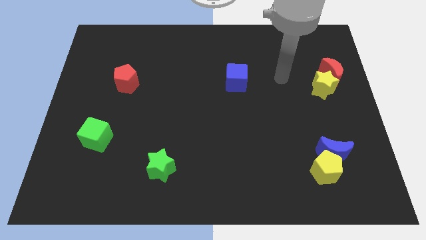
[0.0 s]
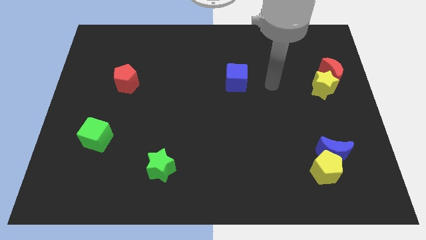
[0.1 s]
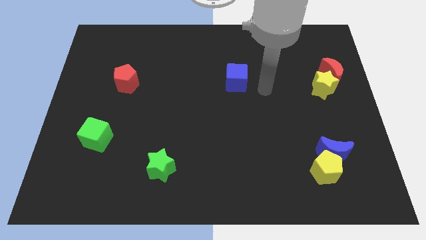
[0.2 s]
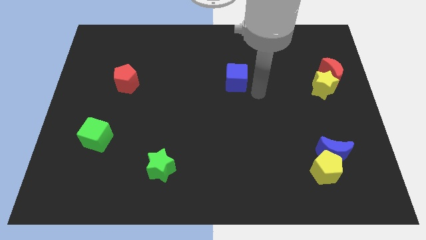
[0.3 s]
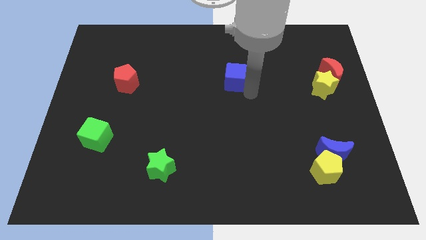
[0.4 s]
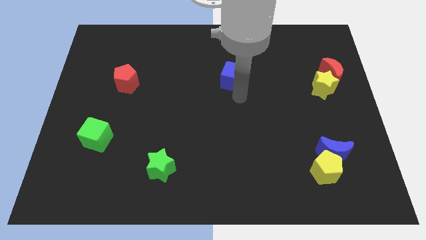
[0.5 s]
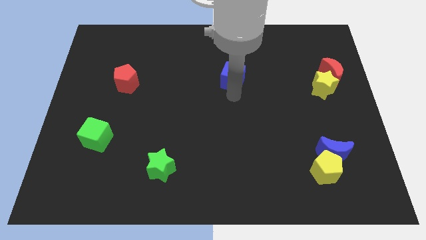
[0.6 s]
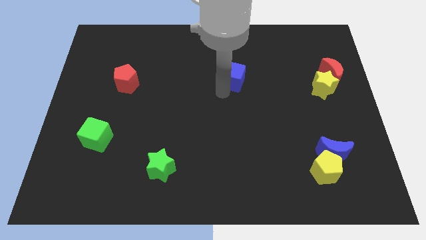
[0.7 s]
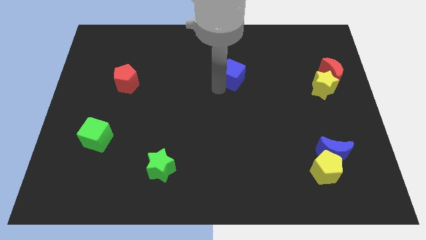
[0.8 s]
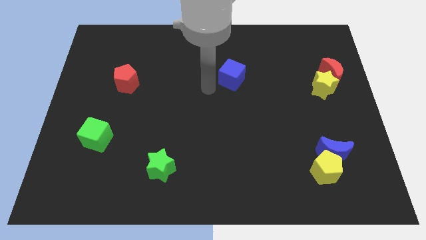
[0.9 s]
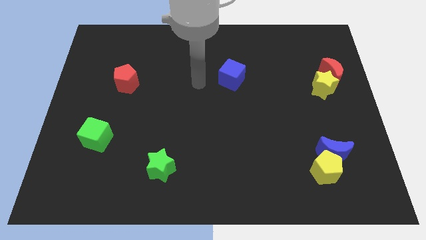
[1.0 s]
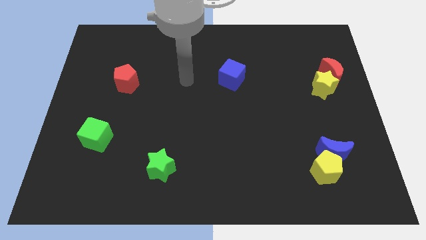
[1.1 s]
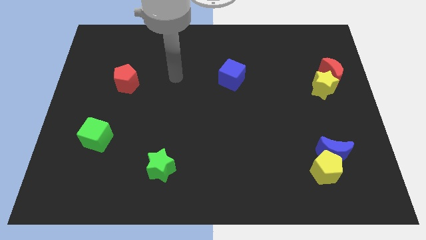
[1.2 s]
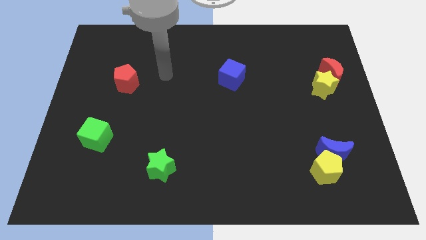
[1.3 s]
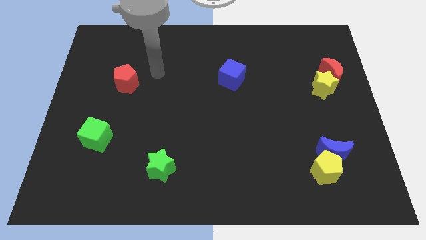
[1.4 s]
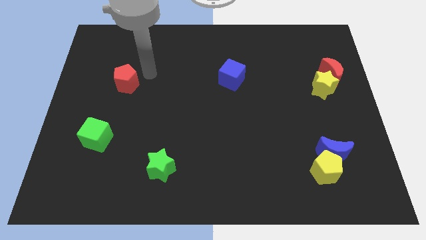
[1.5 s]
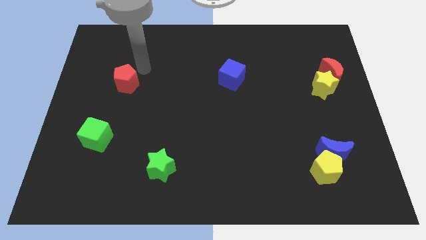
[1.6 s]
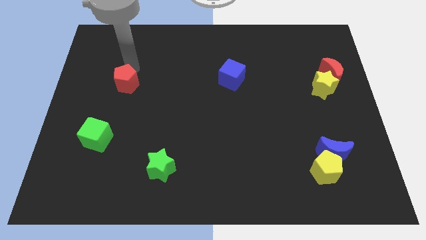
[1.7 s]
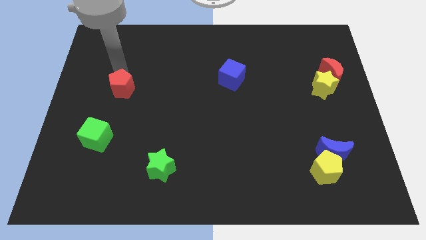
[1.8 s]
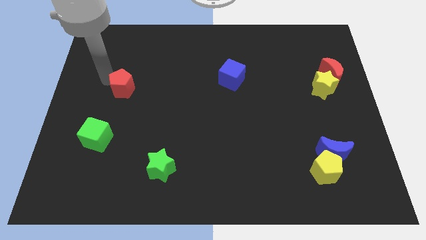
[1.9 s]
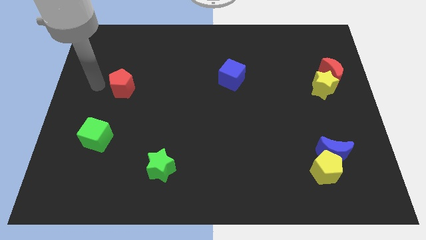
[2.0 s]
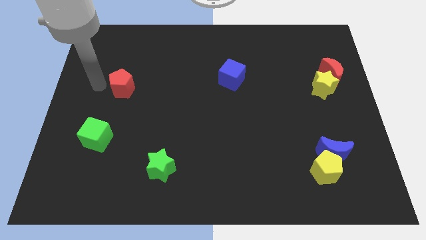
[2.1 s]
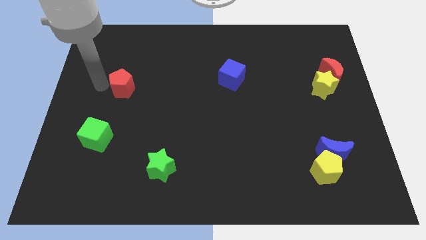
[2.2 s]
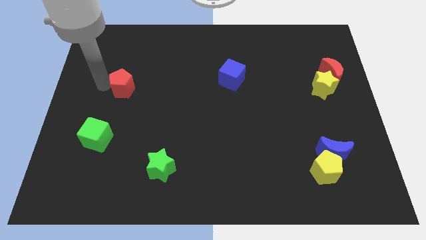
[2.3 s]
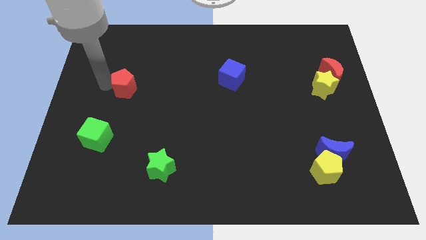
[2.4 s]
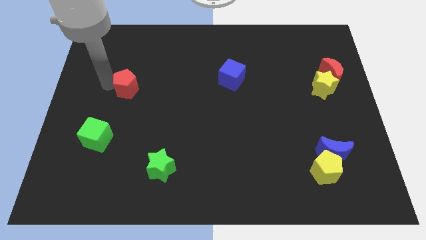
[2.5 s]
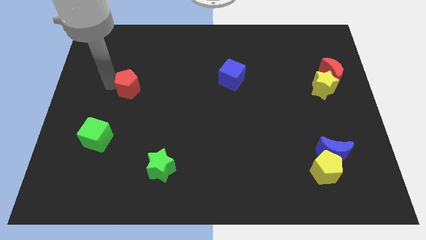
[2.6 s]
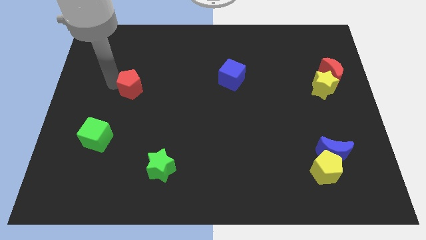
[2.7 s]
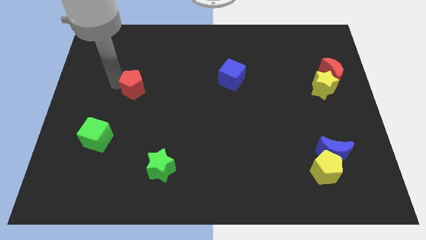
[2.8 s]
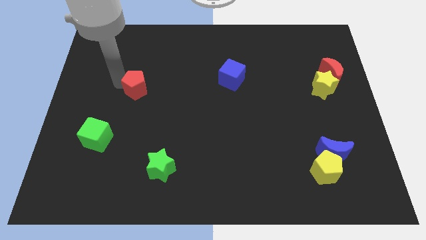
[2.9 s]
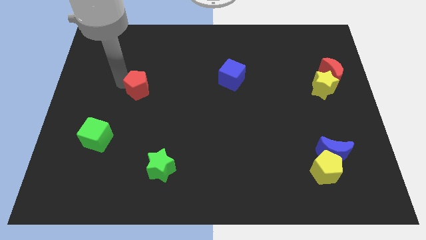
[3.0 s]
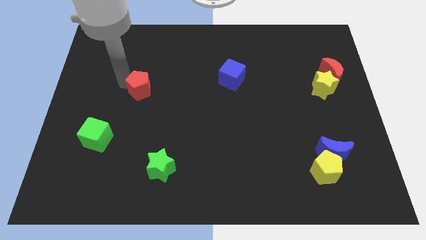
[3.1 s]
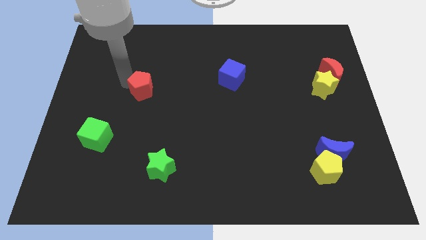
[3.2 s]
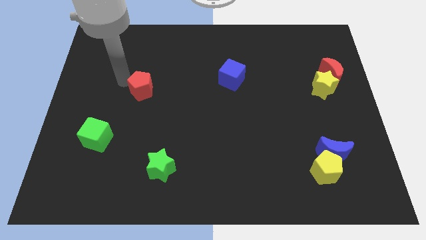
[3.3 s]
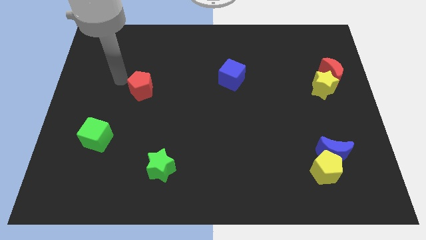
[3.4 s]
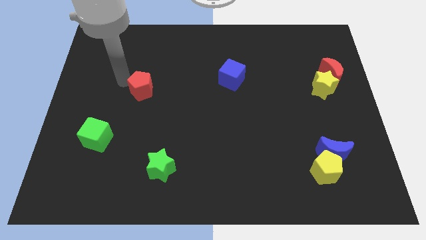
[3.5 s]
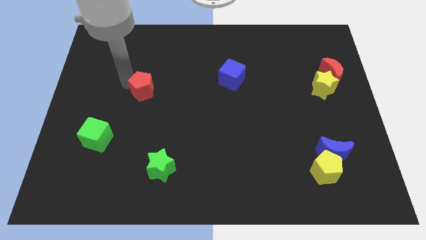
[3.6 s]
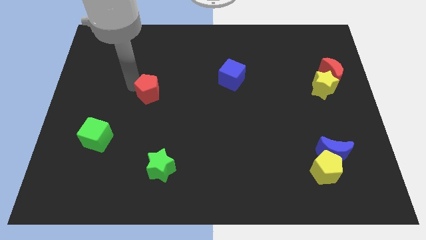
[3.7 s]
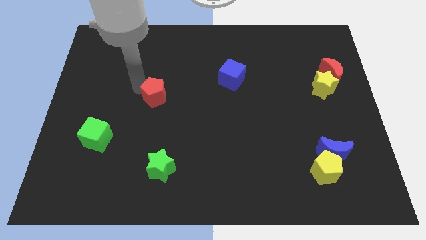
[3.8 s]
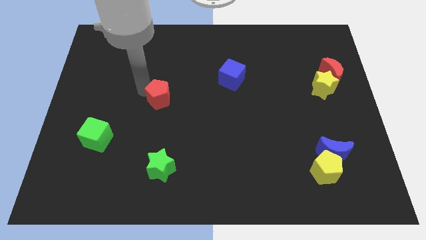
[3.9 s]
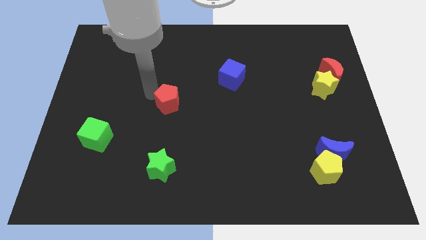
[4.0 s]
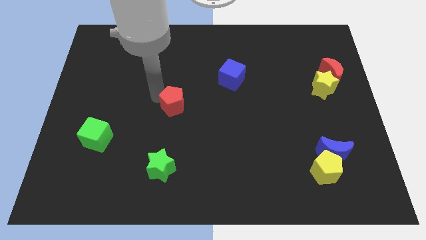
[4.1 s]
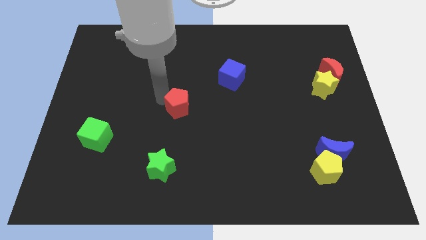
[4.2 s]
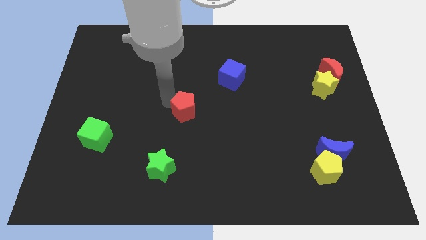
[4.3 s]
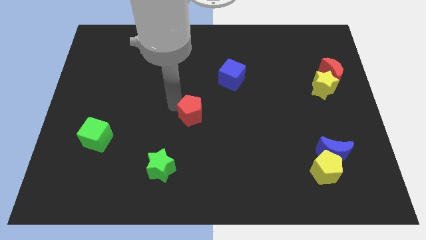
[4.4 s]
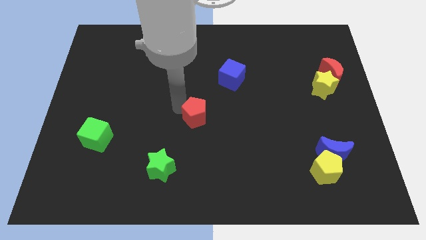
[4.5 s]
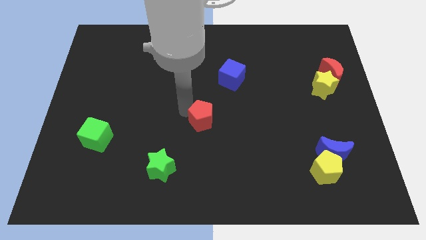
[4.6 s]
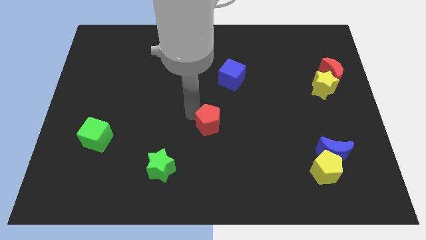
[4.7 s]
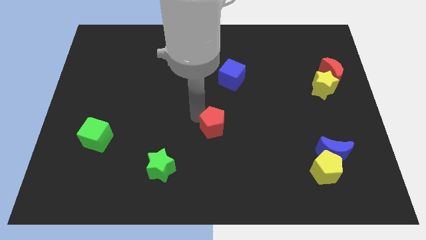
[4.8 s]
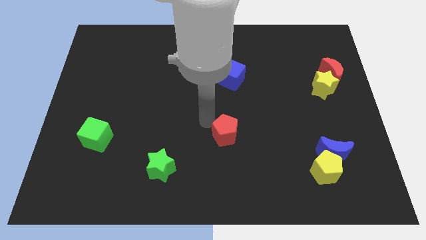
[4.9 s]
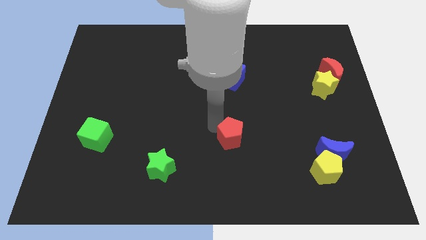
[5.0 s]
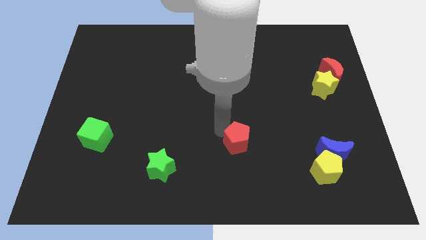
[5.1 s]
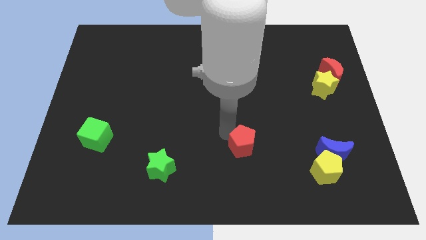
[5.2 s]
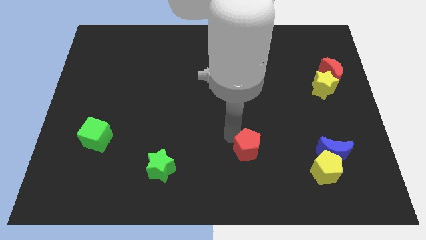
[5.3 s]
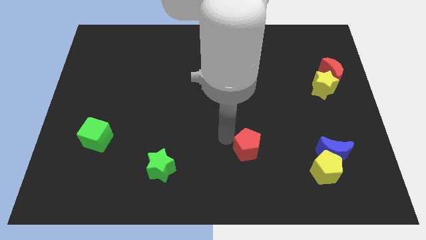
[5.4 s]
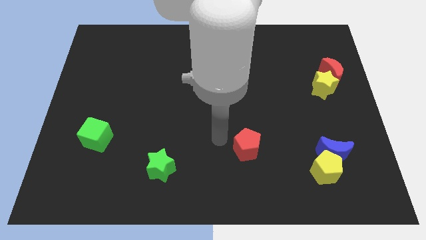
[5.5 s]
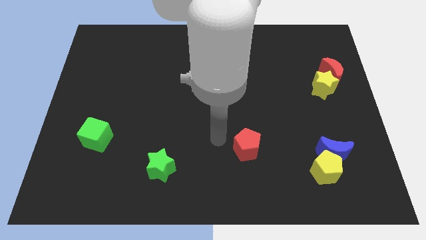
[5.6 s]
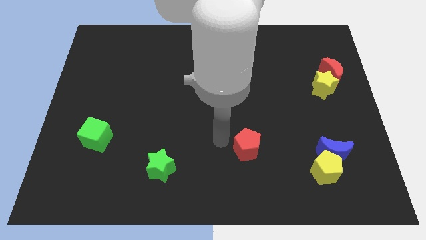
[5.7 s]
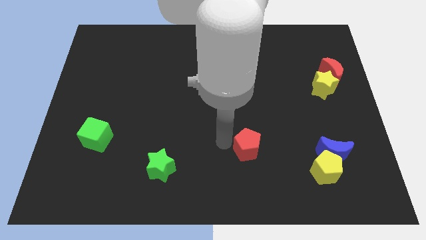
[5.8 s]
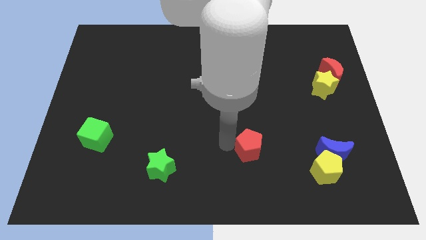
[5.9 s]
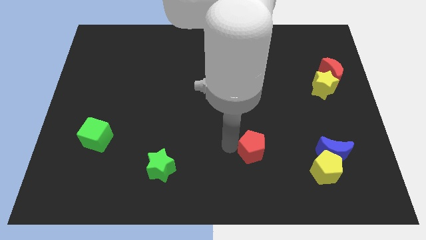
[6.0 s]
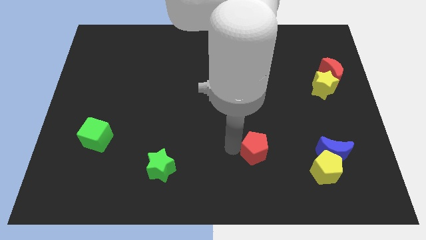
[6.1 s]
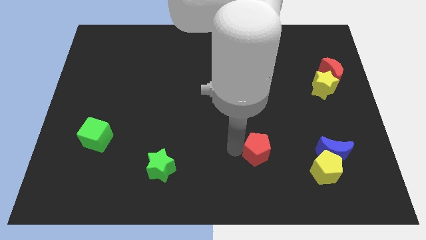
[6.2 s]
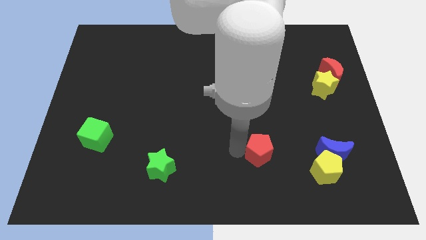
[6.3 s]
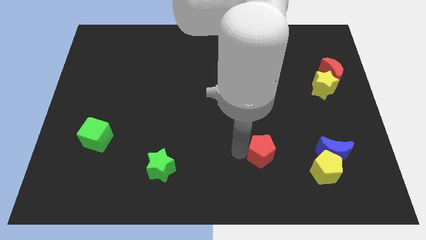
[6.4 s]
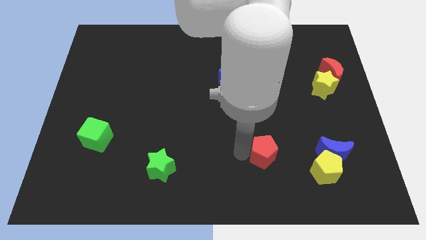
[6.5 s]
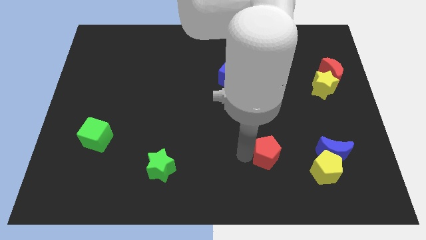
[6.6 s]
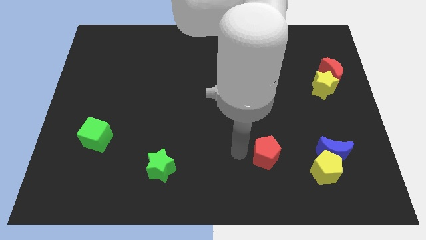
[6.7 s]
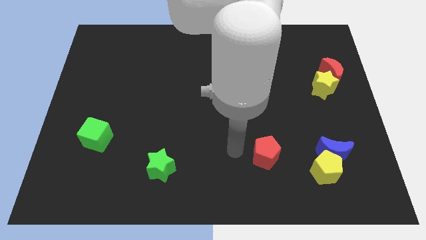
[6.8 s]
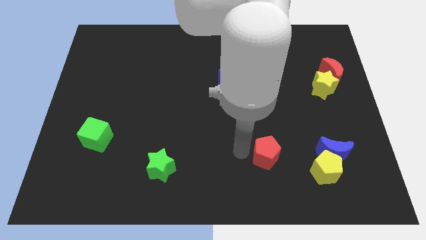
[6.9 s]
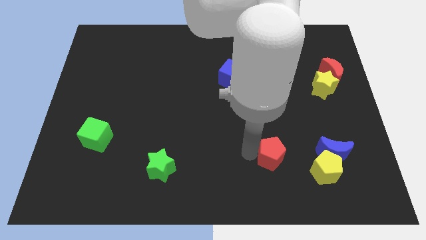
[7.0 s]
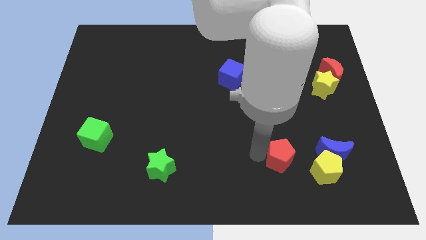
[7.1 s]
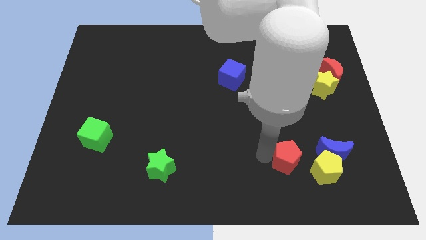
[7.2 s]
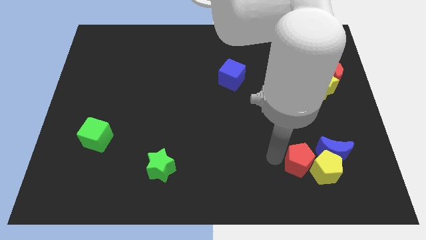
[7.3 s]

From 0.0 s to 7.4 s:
slide the red pentagon towards the yellow pentagon

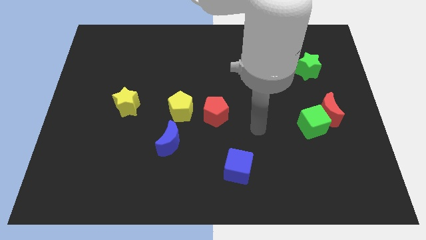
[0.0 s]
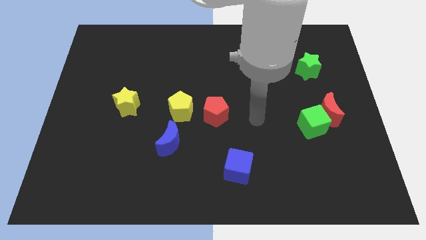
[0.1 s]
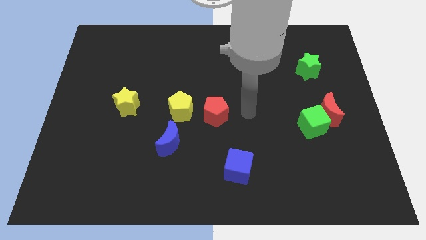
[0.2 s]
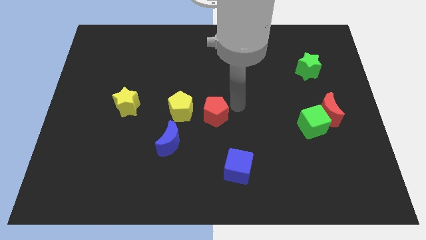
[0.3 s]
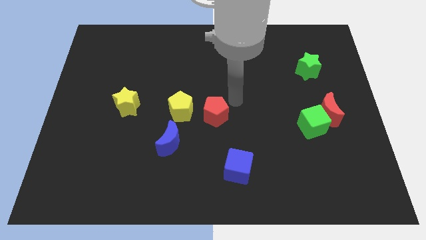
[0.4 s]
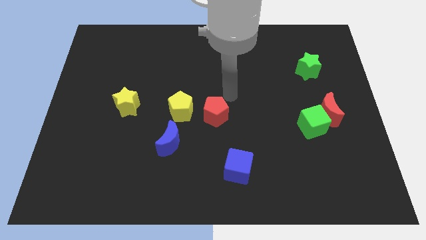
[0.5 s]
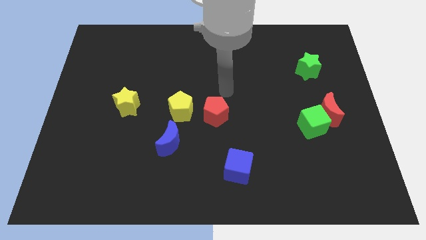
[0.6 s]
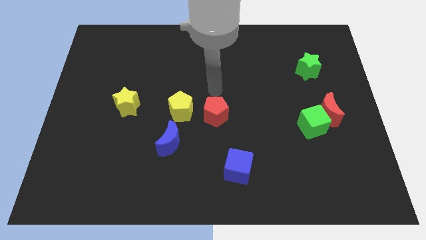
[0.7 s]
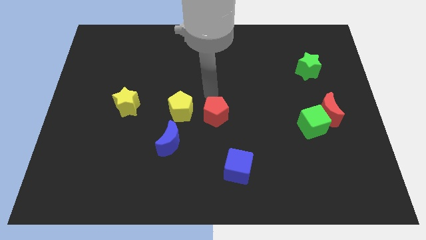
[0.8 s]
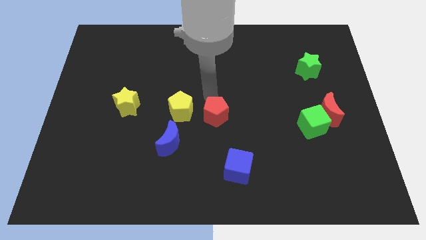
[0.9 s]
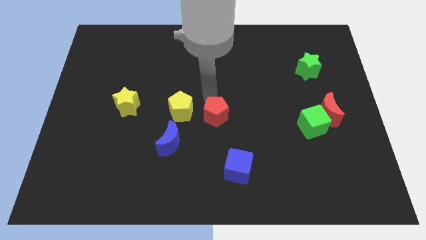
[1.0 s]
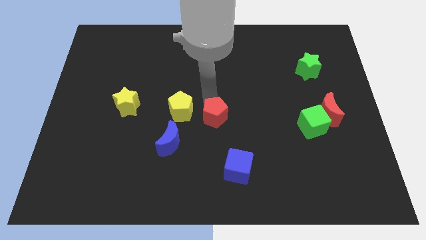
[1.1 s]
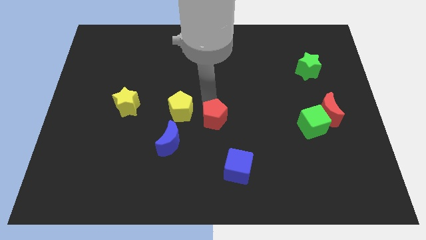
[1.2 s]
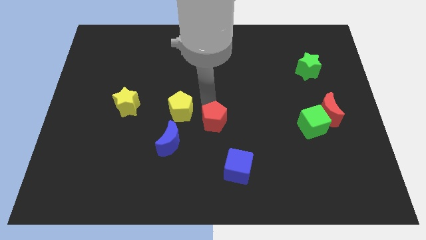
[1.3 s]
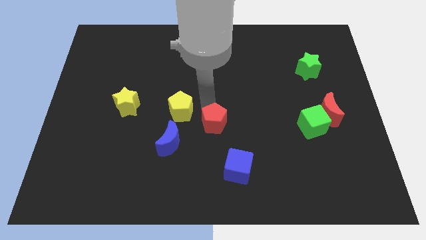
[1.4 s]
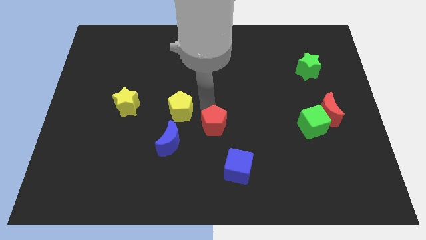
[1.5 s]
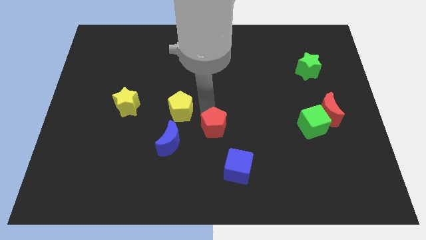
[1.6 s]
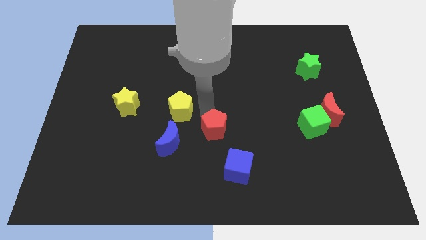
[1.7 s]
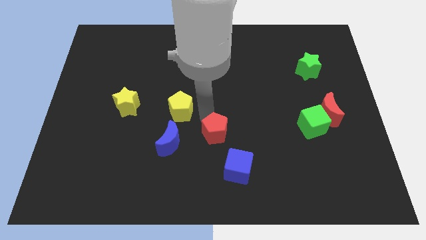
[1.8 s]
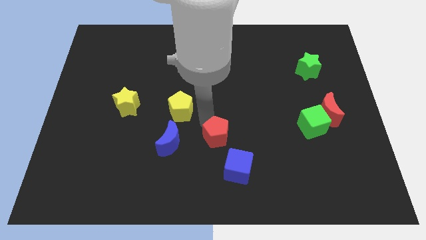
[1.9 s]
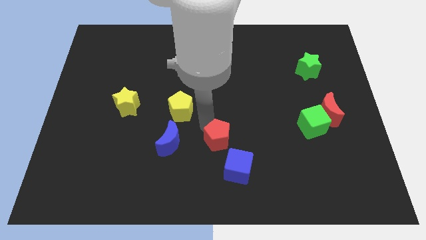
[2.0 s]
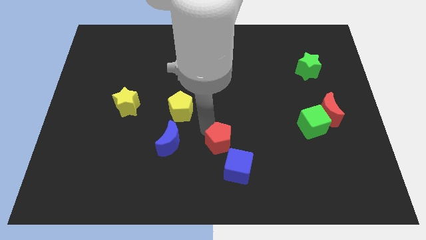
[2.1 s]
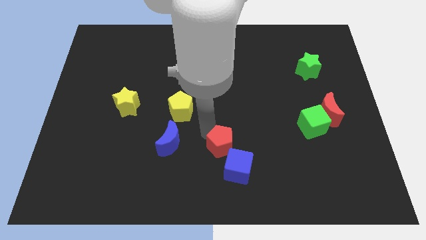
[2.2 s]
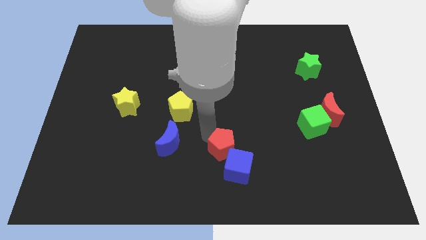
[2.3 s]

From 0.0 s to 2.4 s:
slide the red pentagon next to the blue cube
